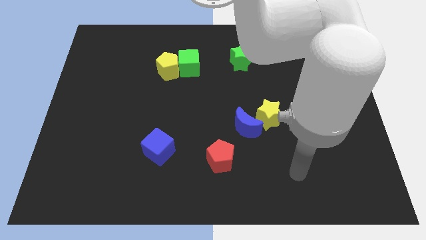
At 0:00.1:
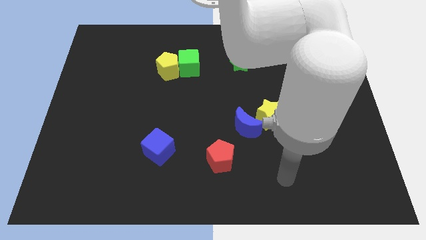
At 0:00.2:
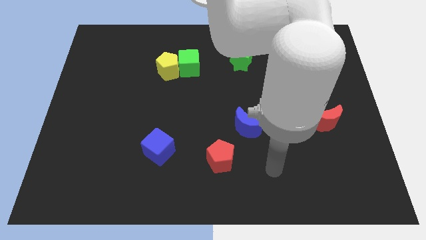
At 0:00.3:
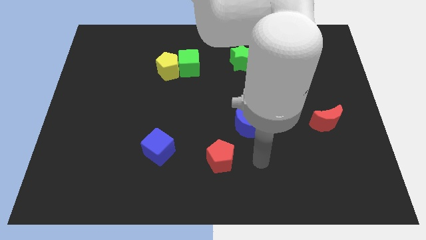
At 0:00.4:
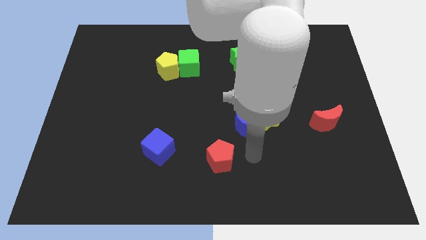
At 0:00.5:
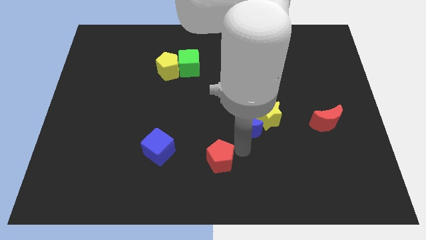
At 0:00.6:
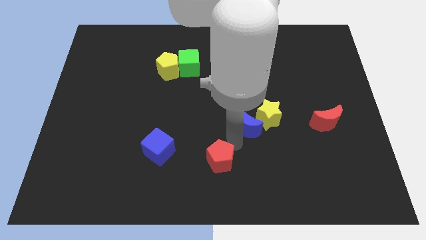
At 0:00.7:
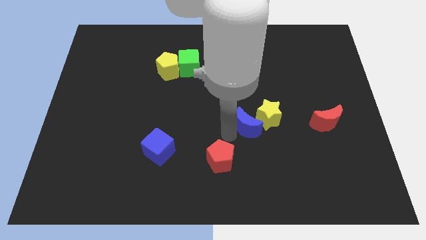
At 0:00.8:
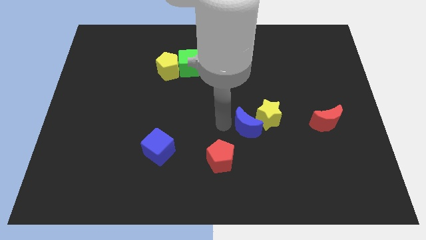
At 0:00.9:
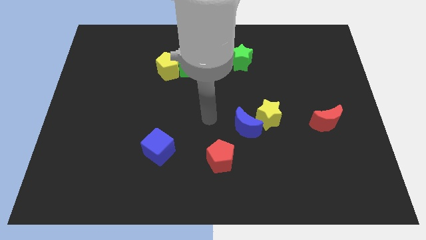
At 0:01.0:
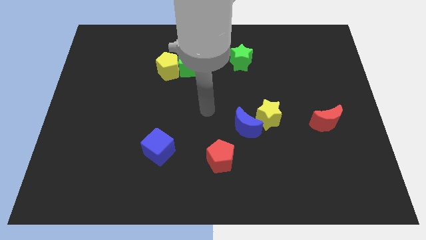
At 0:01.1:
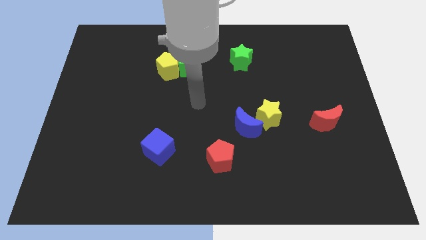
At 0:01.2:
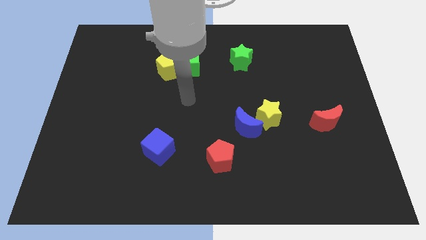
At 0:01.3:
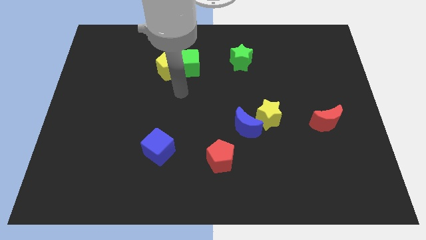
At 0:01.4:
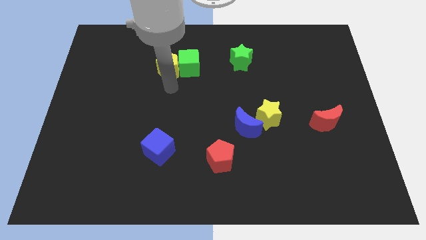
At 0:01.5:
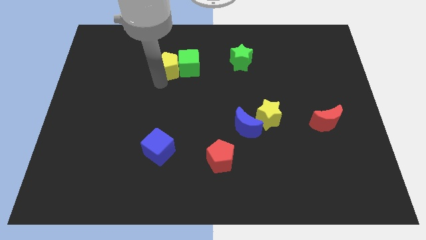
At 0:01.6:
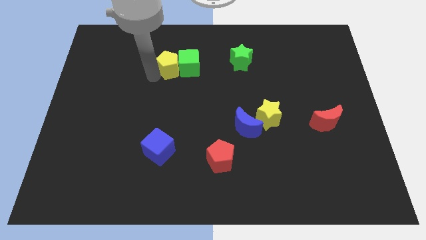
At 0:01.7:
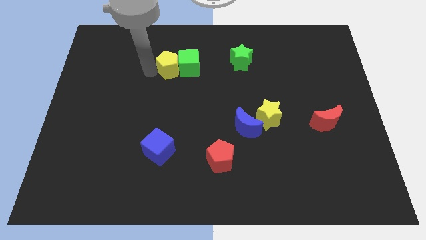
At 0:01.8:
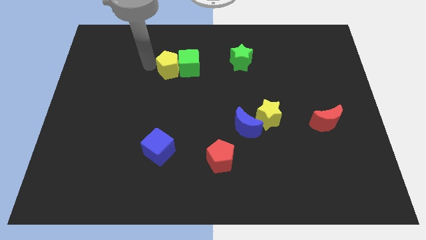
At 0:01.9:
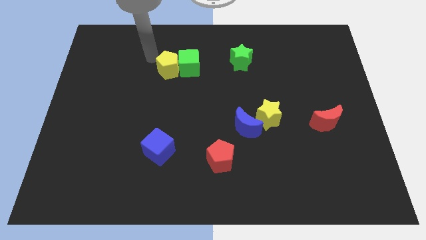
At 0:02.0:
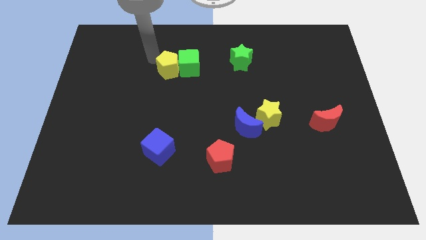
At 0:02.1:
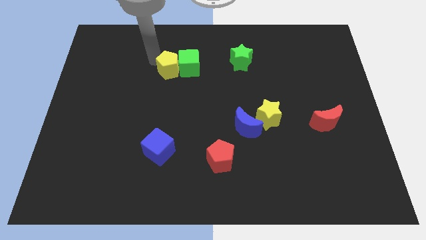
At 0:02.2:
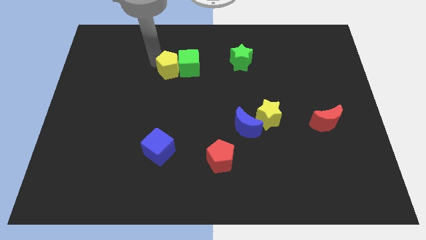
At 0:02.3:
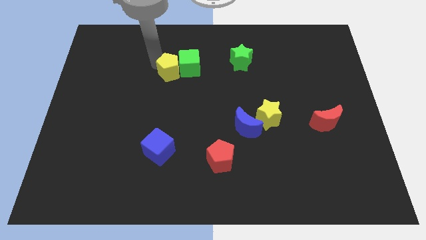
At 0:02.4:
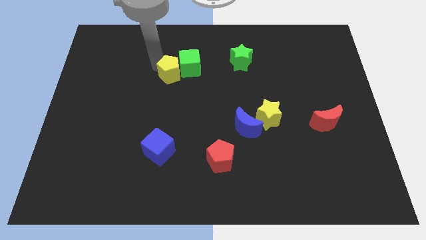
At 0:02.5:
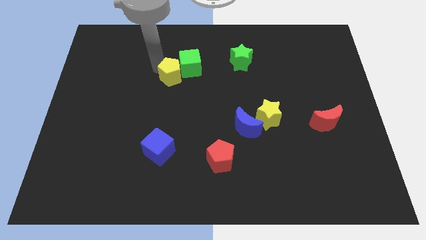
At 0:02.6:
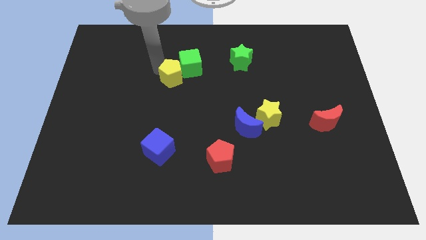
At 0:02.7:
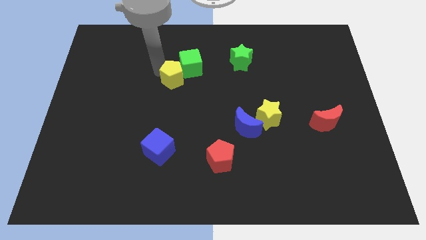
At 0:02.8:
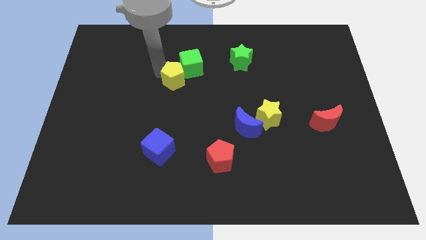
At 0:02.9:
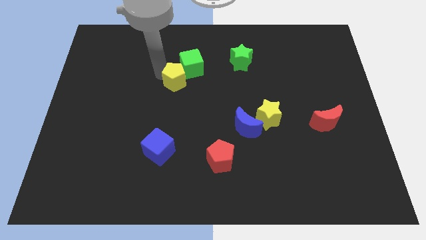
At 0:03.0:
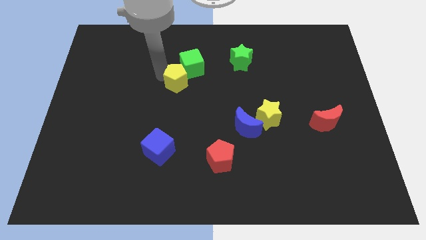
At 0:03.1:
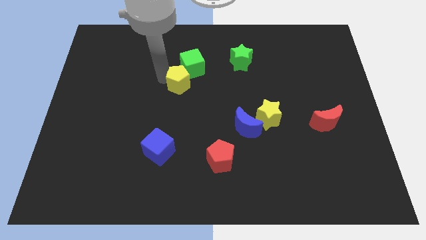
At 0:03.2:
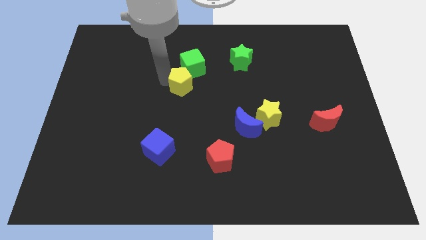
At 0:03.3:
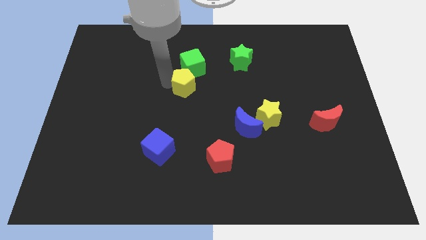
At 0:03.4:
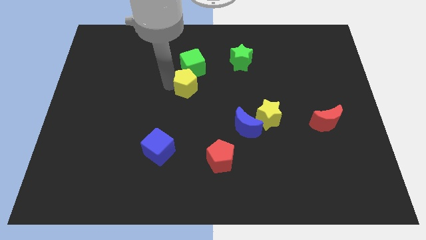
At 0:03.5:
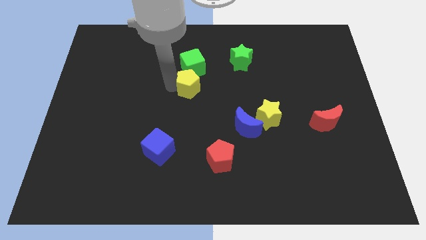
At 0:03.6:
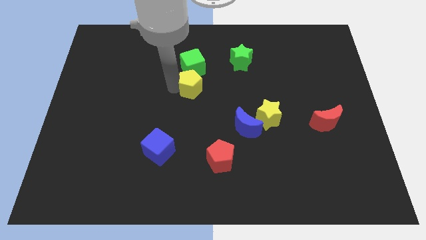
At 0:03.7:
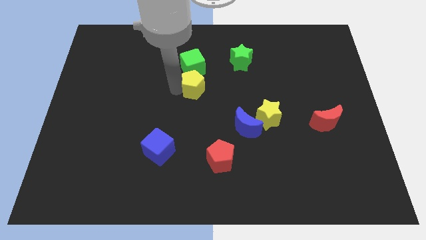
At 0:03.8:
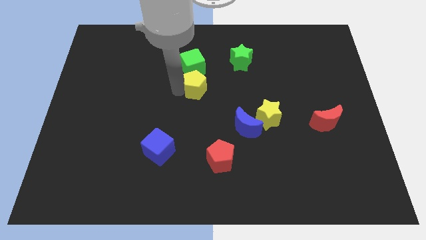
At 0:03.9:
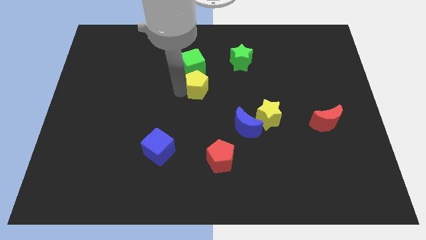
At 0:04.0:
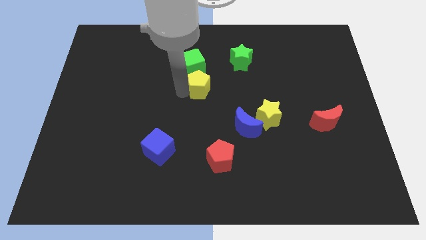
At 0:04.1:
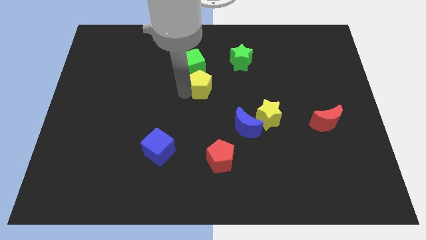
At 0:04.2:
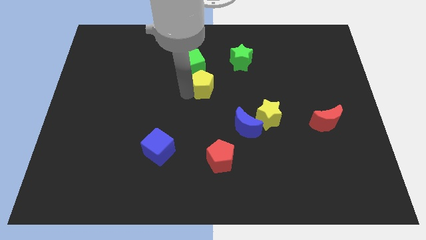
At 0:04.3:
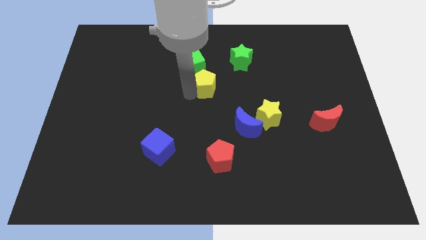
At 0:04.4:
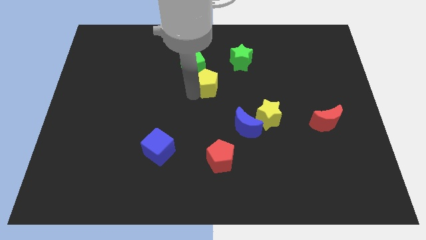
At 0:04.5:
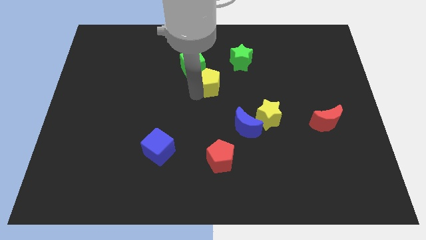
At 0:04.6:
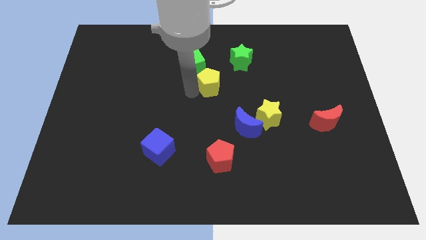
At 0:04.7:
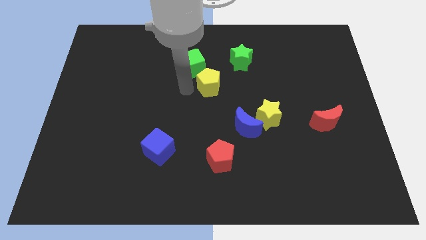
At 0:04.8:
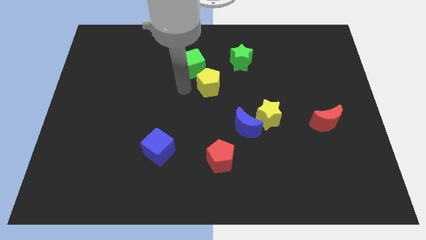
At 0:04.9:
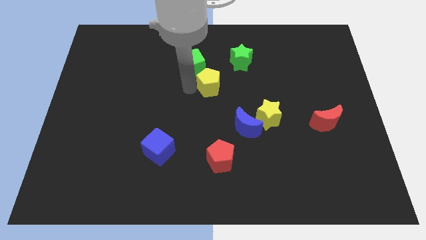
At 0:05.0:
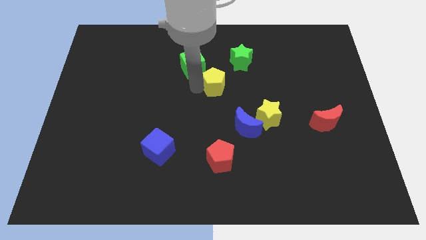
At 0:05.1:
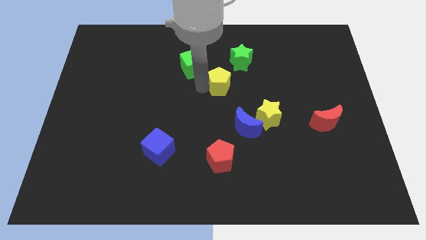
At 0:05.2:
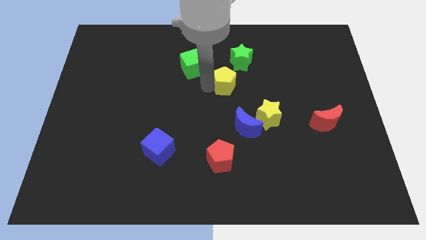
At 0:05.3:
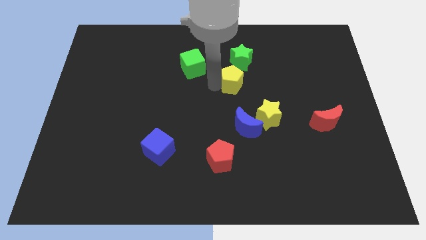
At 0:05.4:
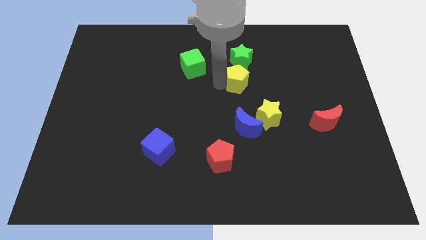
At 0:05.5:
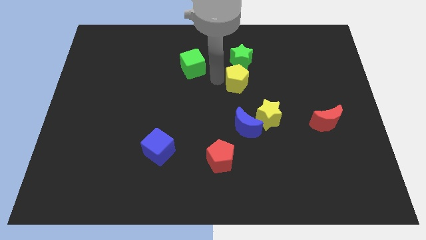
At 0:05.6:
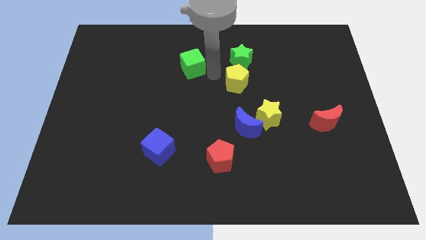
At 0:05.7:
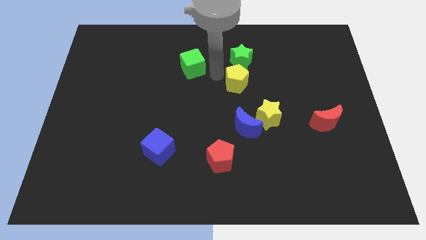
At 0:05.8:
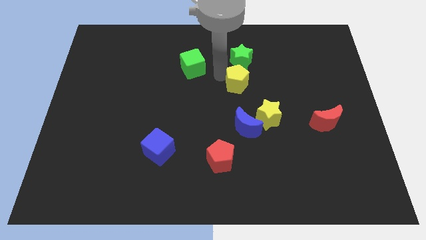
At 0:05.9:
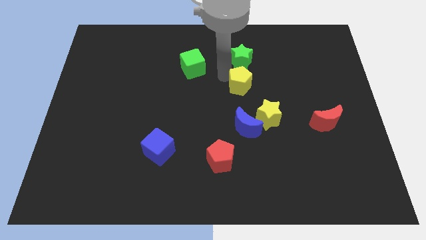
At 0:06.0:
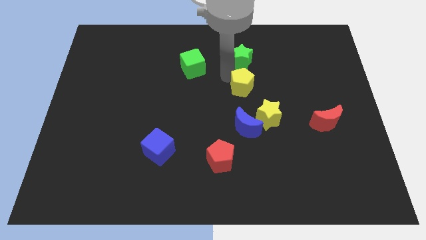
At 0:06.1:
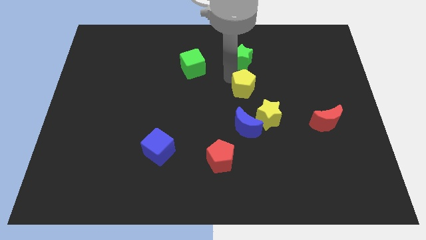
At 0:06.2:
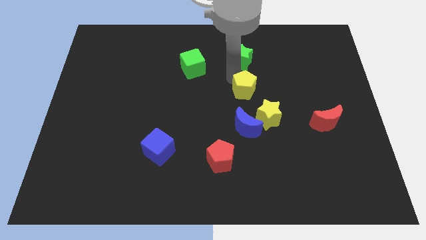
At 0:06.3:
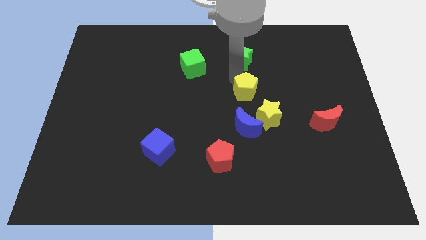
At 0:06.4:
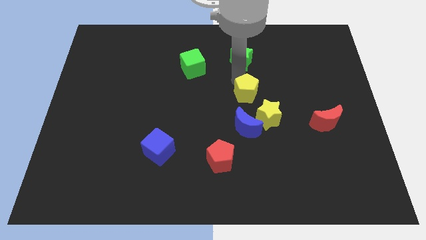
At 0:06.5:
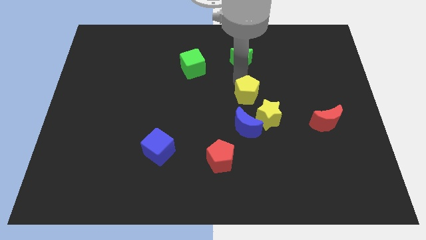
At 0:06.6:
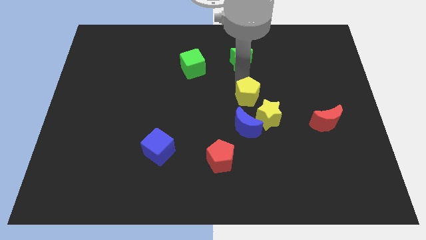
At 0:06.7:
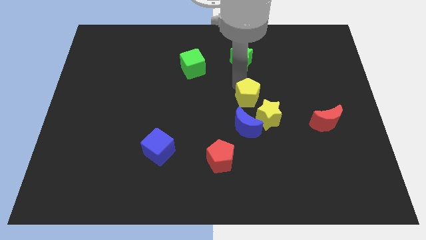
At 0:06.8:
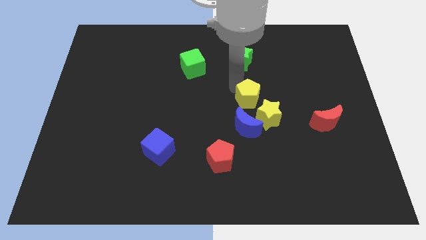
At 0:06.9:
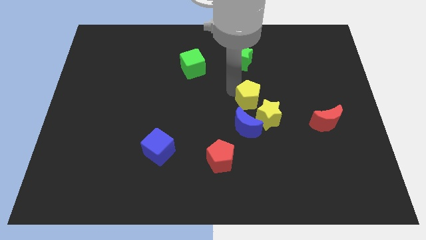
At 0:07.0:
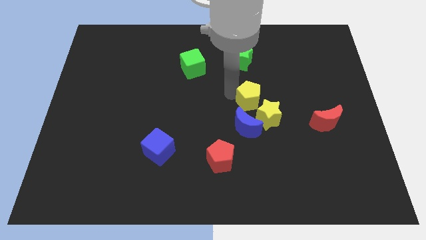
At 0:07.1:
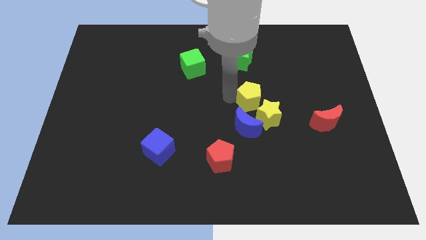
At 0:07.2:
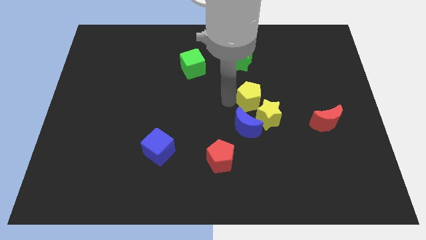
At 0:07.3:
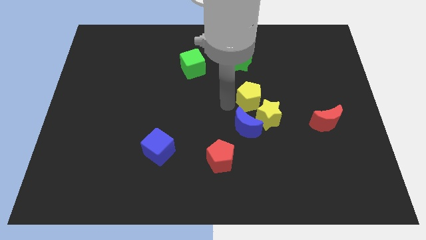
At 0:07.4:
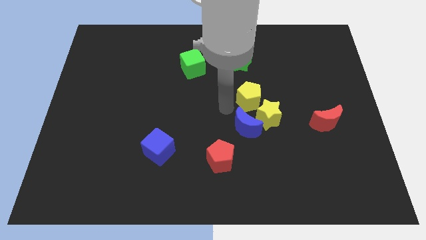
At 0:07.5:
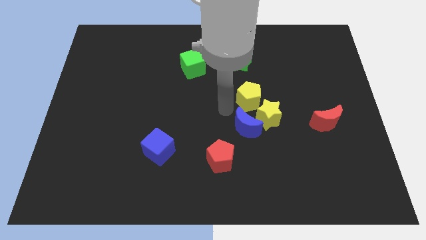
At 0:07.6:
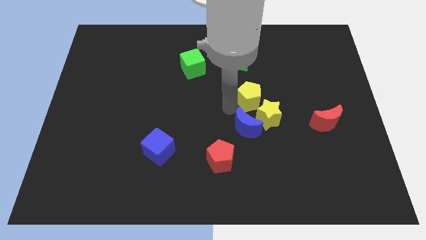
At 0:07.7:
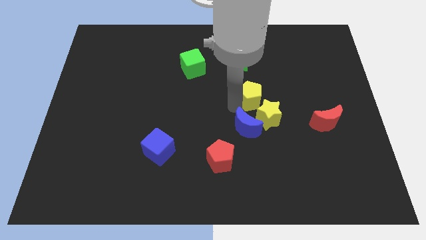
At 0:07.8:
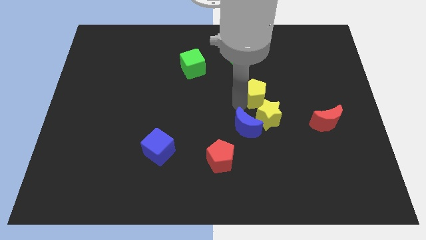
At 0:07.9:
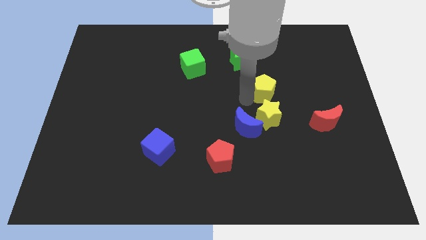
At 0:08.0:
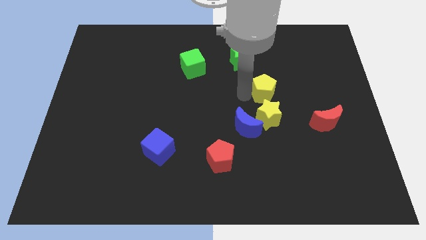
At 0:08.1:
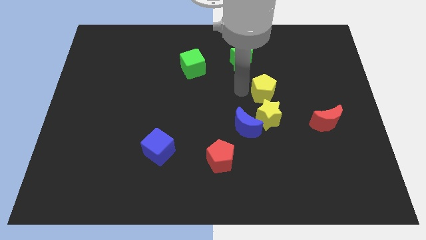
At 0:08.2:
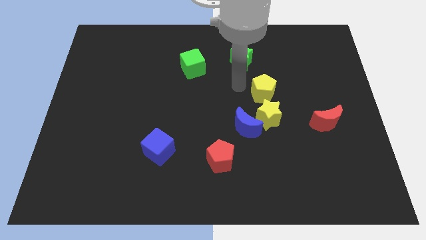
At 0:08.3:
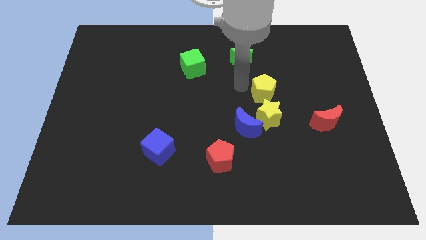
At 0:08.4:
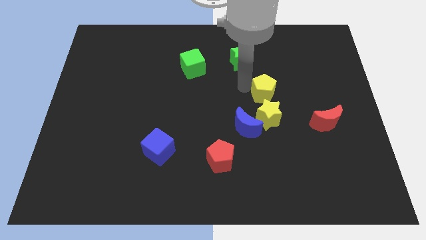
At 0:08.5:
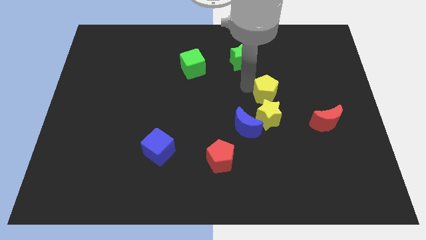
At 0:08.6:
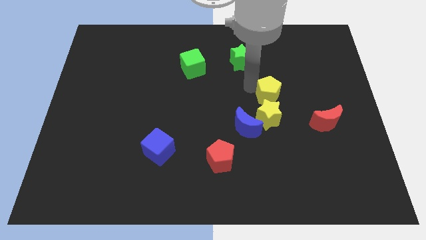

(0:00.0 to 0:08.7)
slide the yellow pentagon diagonally up and to the right of the yellow star
